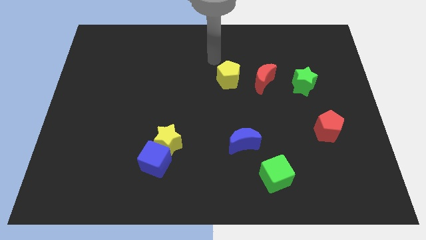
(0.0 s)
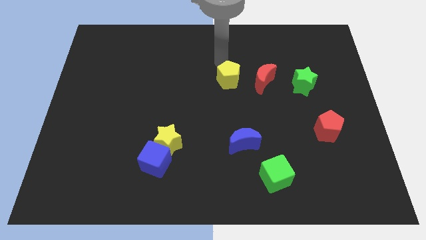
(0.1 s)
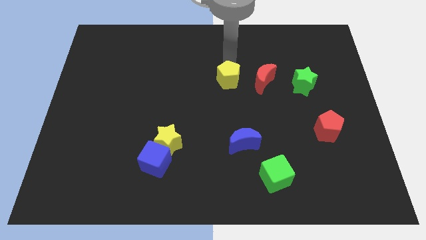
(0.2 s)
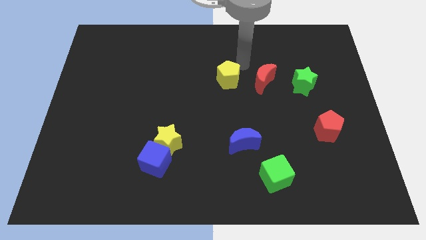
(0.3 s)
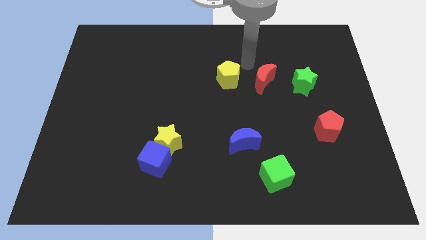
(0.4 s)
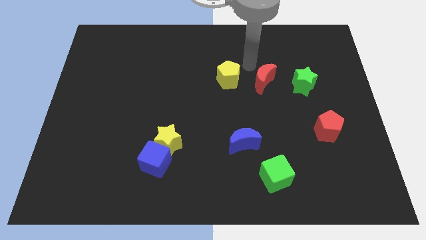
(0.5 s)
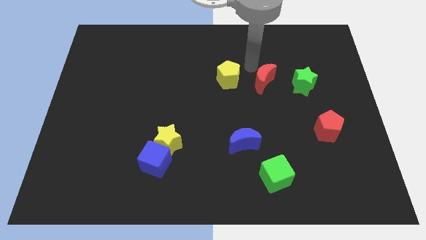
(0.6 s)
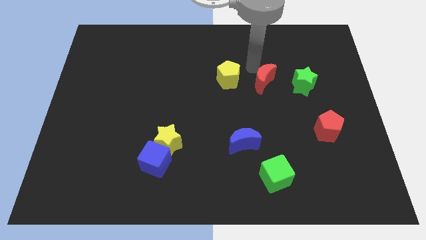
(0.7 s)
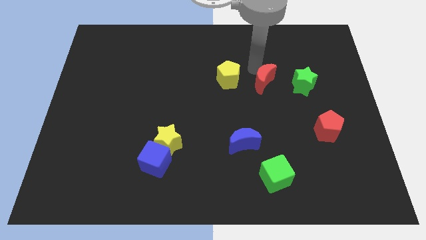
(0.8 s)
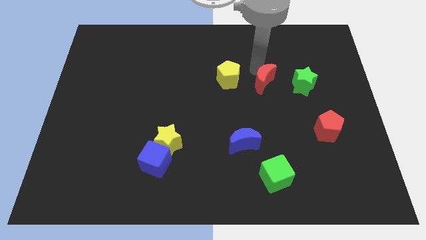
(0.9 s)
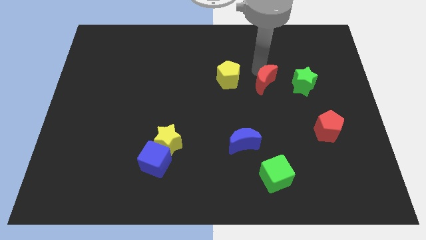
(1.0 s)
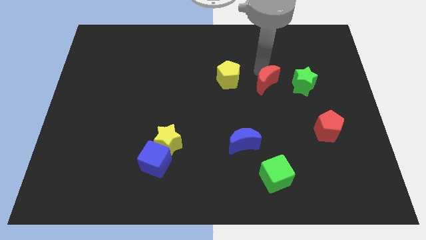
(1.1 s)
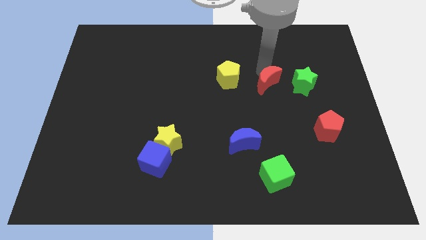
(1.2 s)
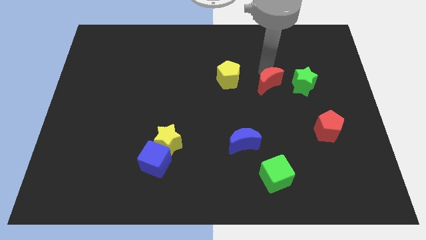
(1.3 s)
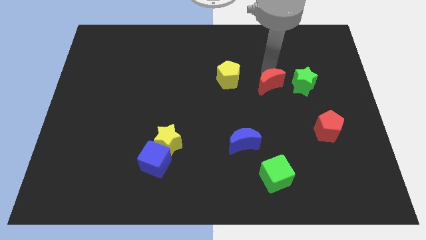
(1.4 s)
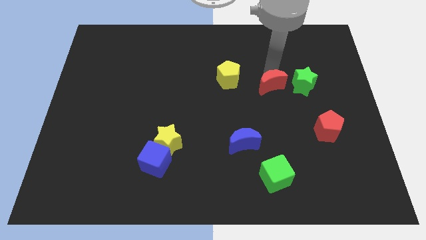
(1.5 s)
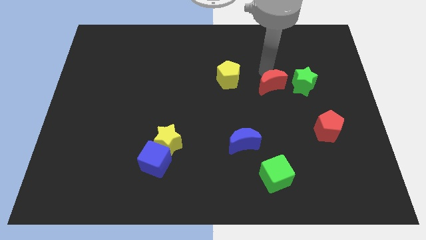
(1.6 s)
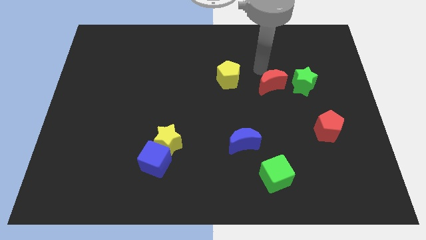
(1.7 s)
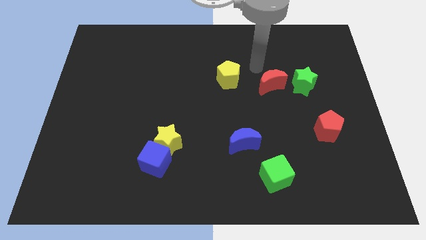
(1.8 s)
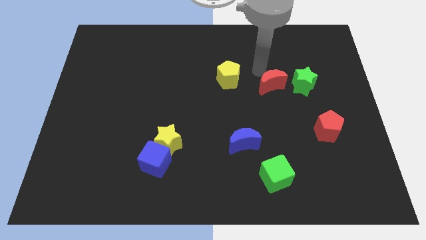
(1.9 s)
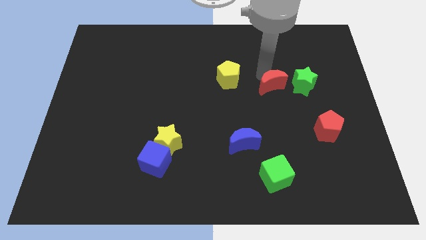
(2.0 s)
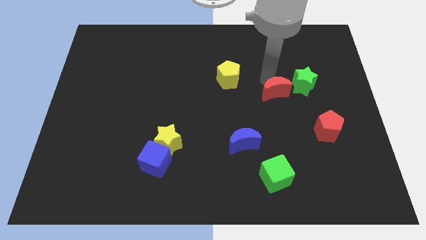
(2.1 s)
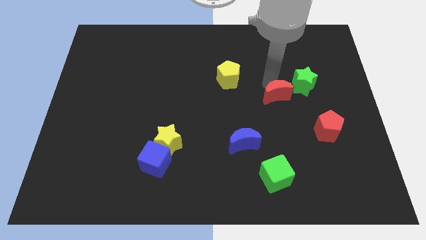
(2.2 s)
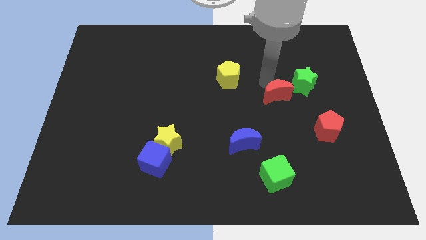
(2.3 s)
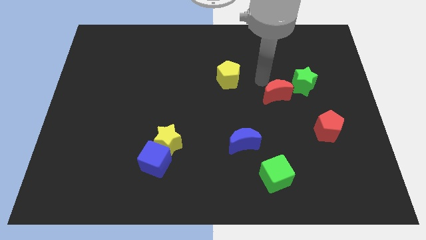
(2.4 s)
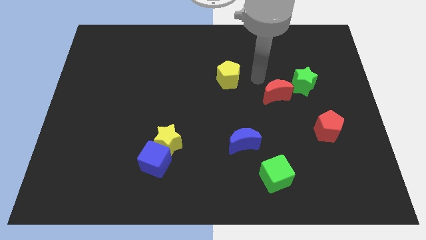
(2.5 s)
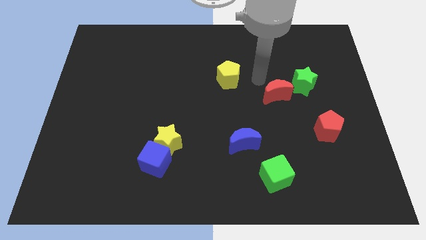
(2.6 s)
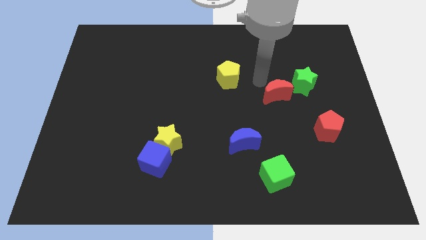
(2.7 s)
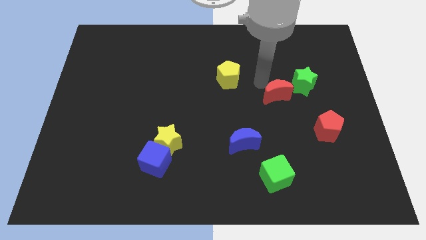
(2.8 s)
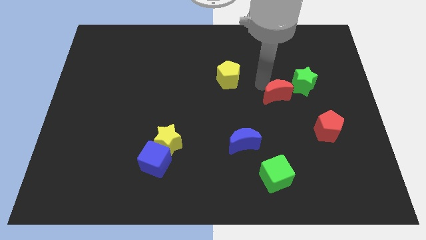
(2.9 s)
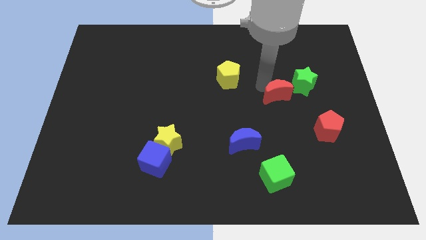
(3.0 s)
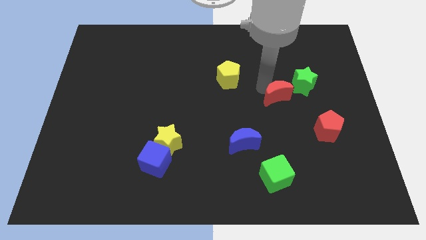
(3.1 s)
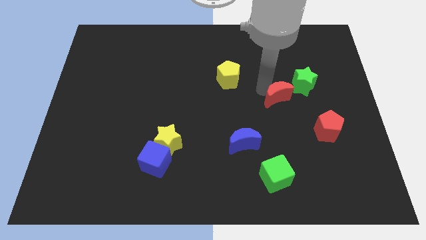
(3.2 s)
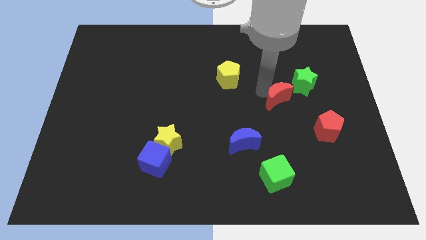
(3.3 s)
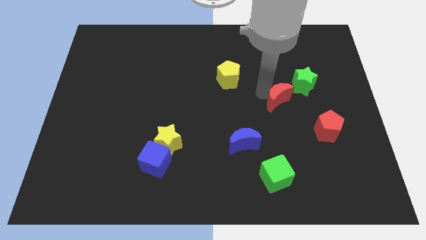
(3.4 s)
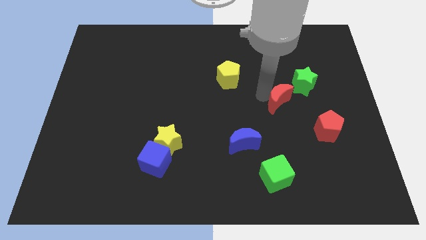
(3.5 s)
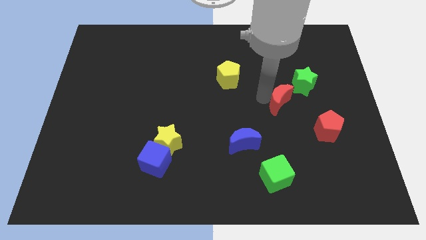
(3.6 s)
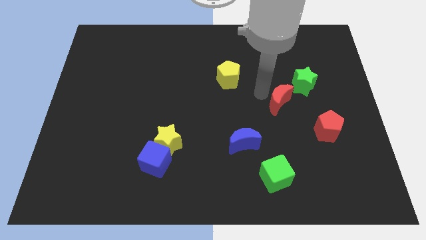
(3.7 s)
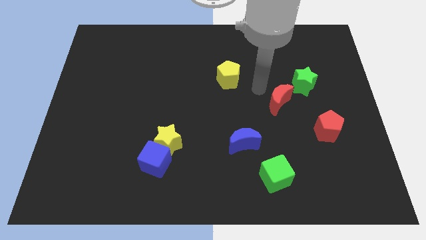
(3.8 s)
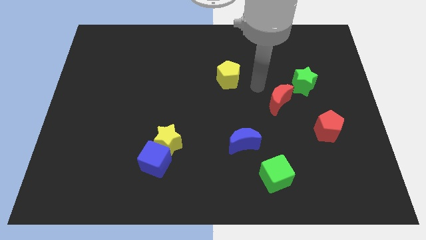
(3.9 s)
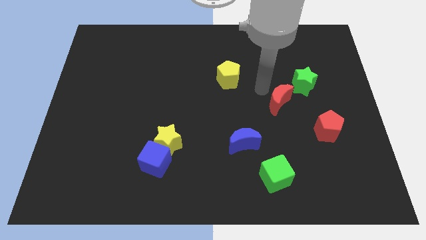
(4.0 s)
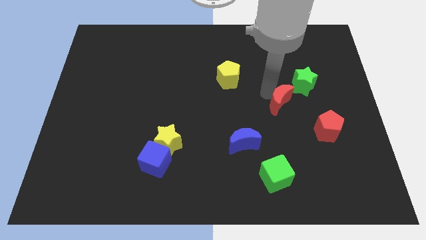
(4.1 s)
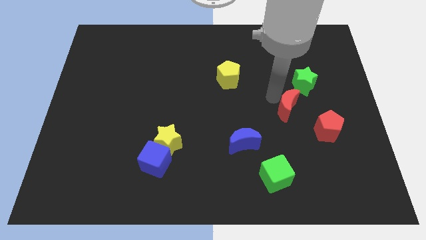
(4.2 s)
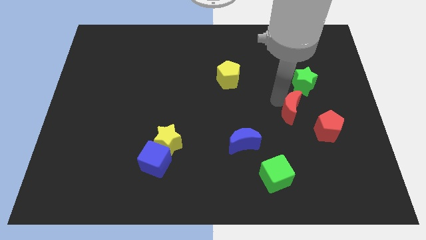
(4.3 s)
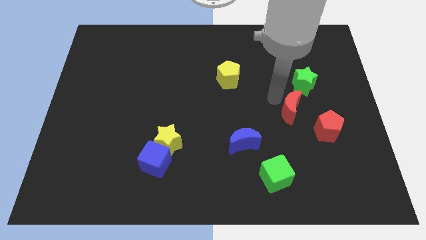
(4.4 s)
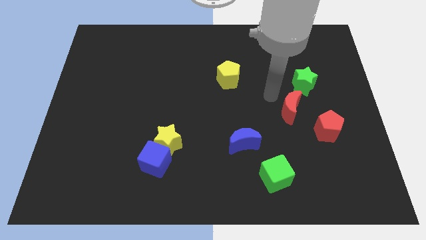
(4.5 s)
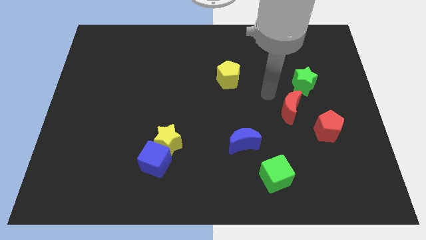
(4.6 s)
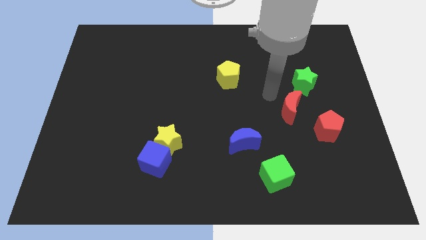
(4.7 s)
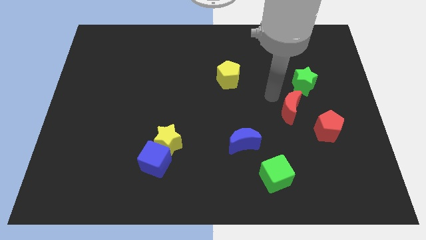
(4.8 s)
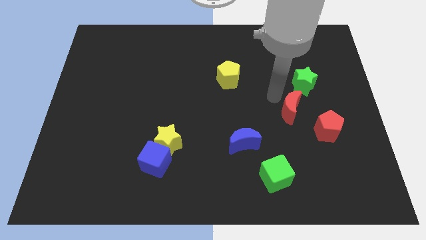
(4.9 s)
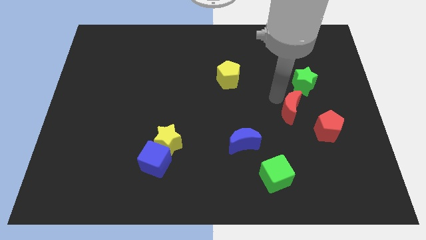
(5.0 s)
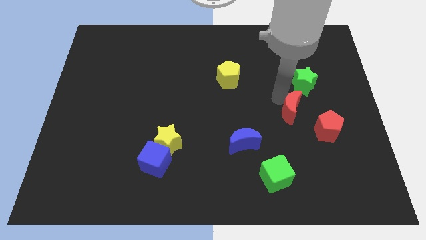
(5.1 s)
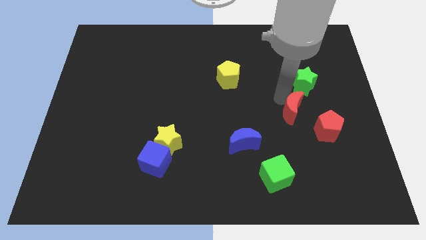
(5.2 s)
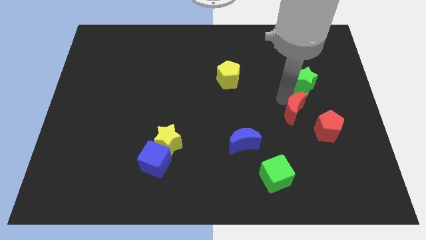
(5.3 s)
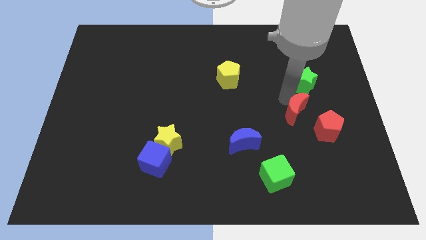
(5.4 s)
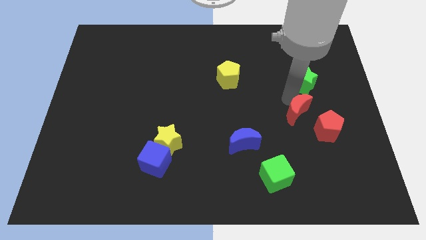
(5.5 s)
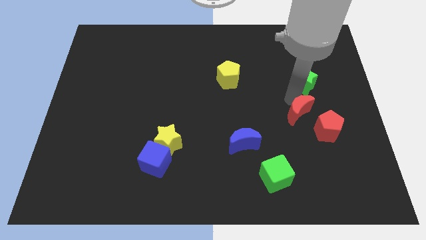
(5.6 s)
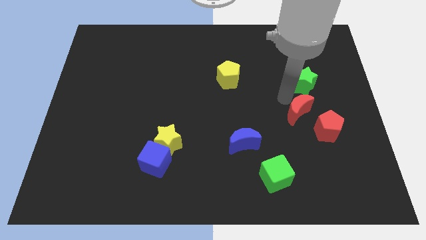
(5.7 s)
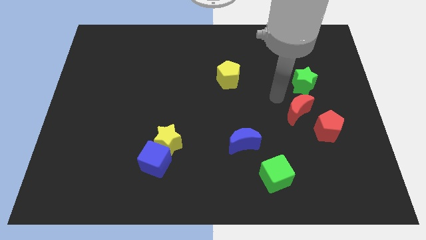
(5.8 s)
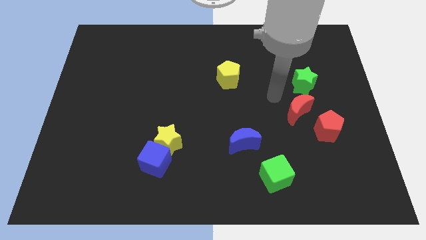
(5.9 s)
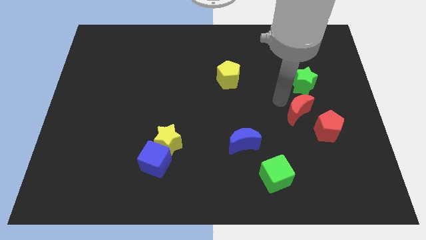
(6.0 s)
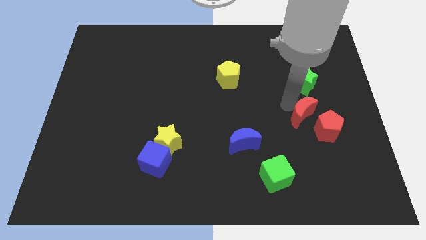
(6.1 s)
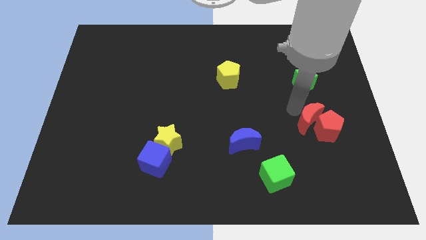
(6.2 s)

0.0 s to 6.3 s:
put the red moon next to the red pentagon

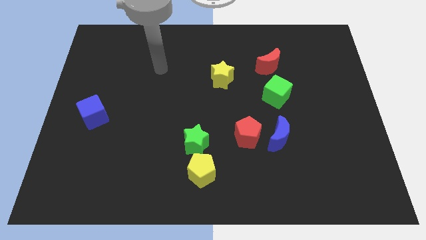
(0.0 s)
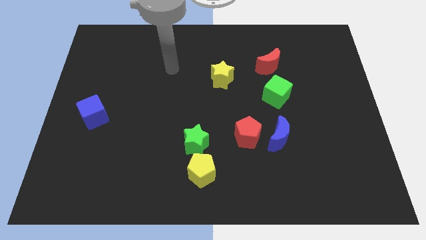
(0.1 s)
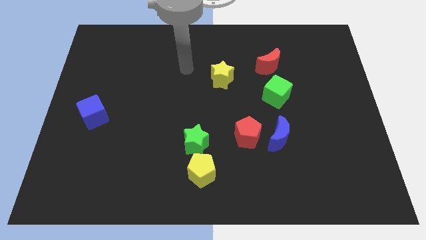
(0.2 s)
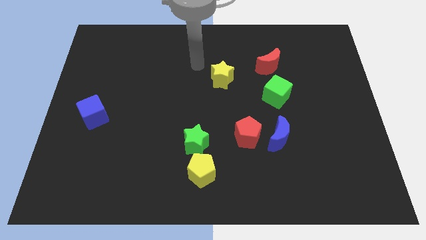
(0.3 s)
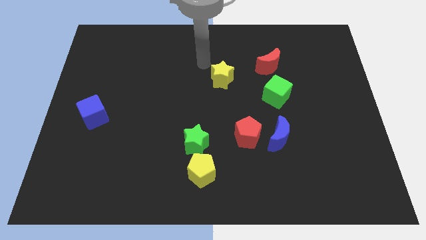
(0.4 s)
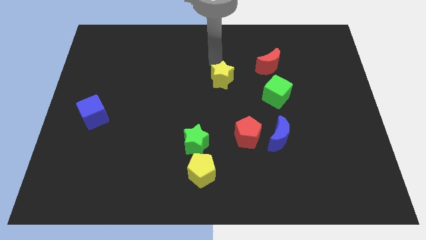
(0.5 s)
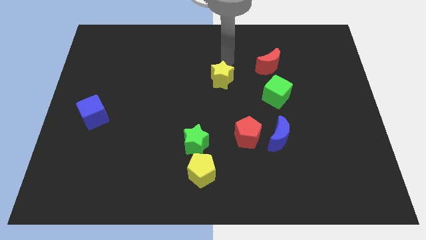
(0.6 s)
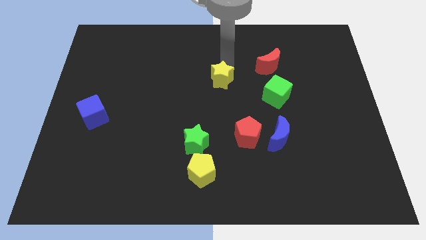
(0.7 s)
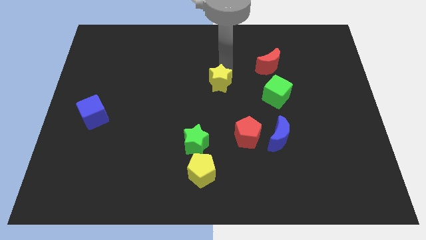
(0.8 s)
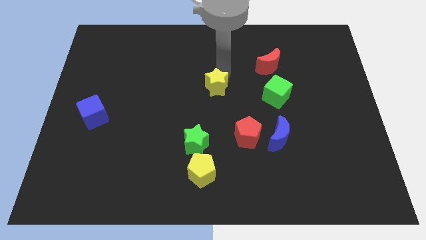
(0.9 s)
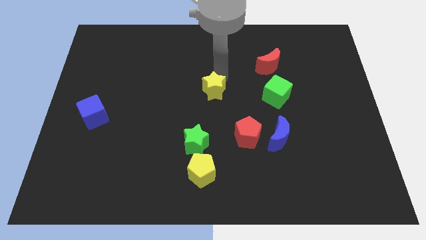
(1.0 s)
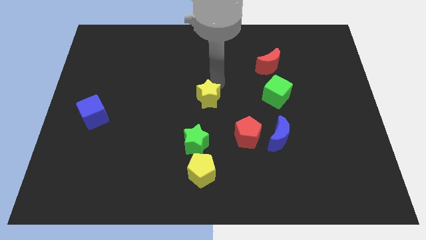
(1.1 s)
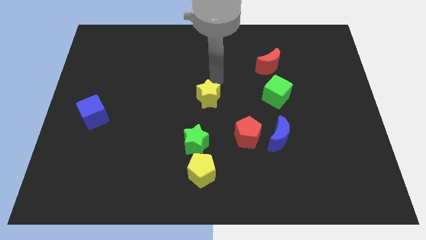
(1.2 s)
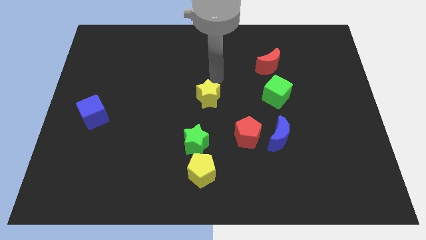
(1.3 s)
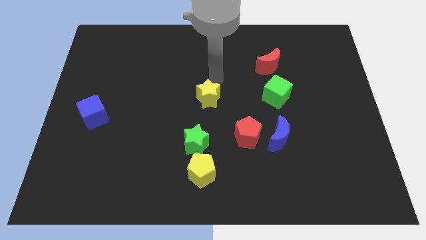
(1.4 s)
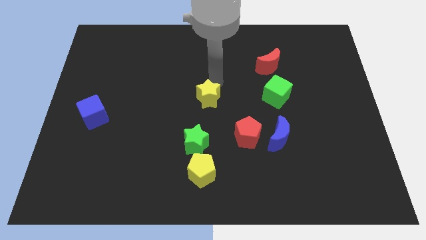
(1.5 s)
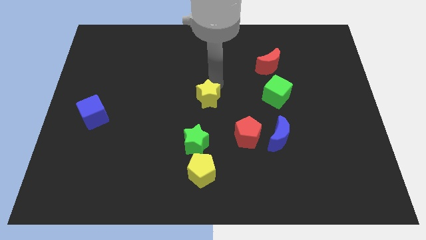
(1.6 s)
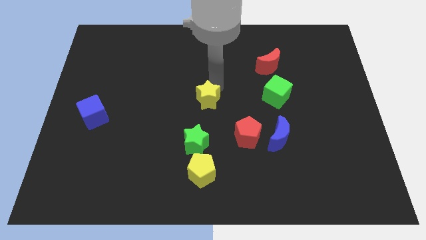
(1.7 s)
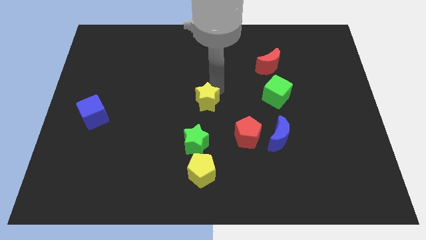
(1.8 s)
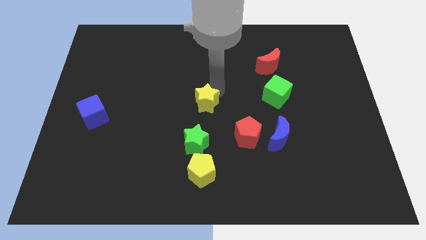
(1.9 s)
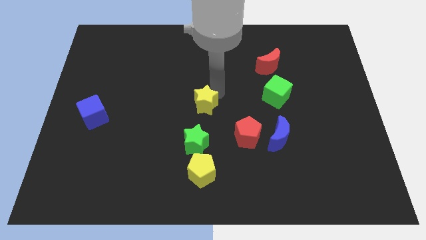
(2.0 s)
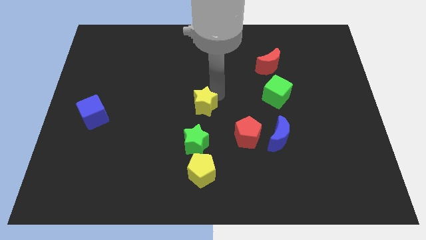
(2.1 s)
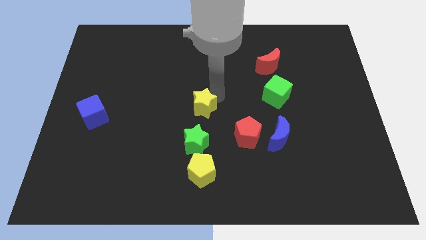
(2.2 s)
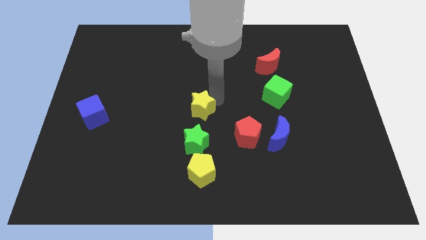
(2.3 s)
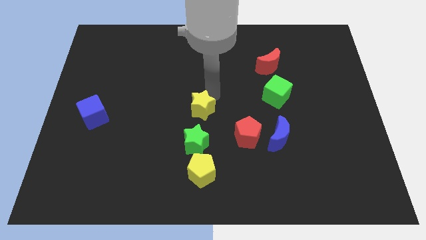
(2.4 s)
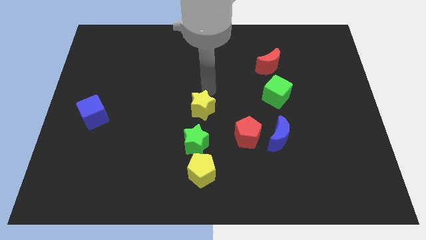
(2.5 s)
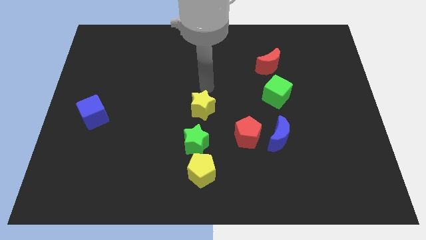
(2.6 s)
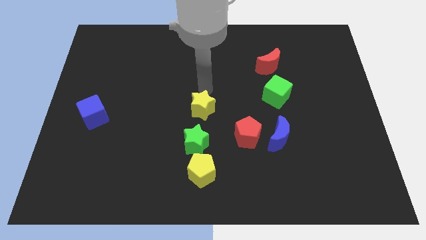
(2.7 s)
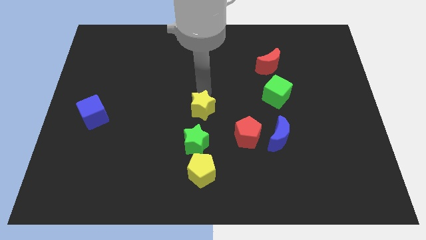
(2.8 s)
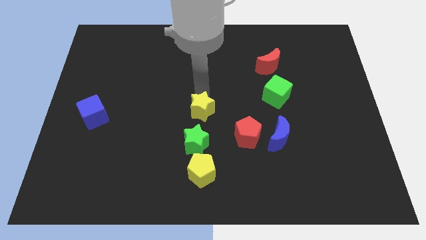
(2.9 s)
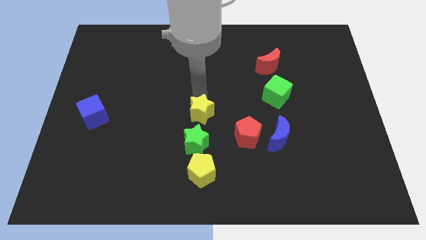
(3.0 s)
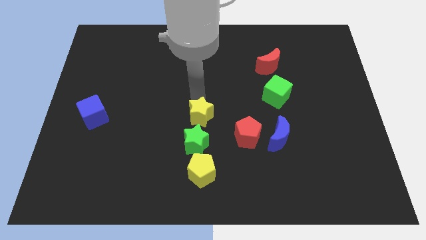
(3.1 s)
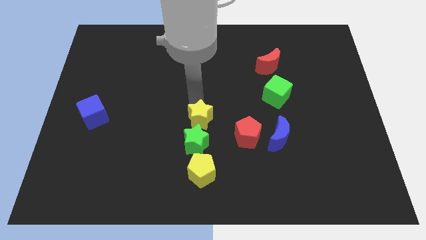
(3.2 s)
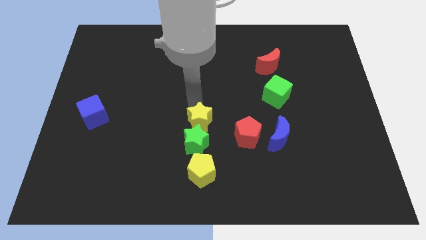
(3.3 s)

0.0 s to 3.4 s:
put the yellow star close to the green star
